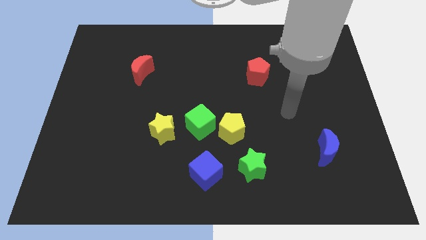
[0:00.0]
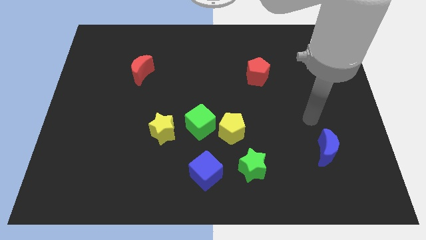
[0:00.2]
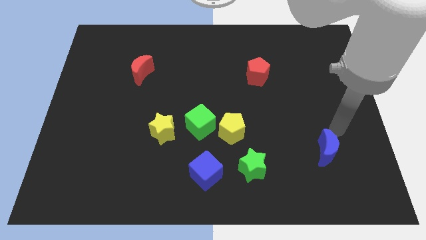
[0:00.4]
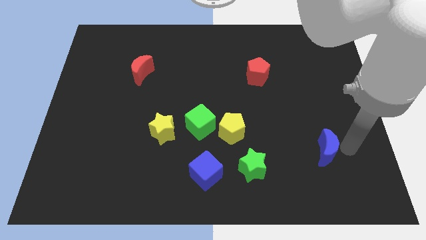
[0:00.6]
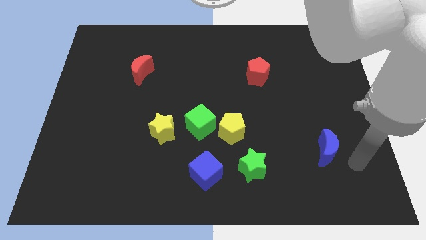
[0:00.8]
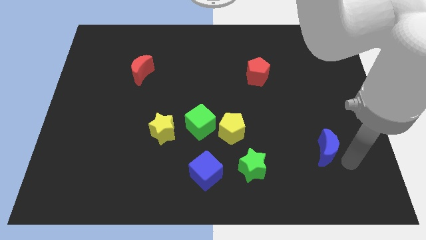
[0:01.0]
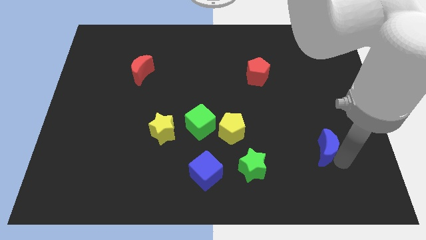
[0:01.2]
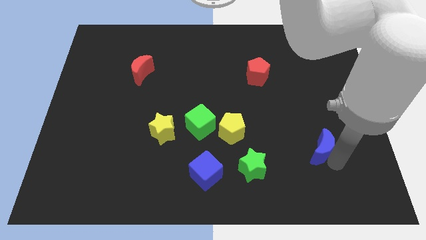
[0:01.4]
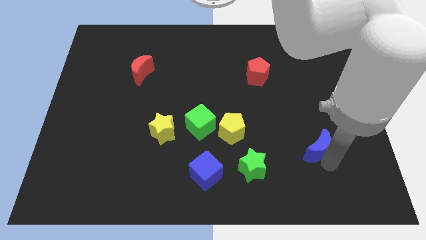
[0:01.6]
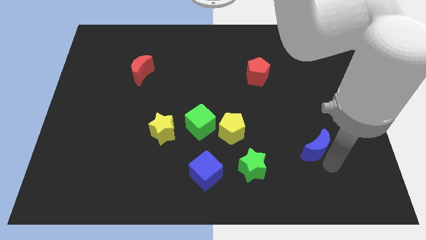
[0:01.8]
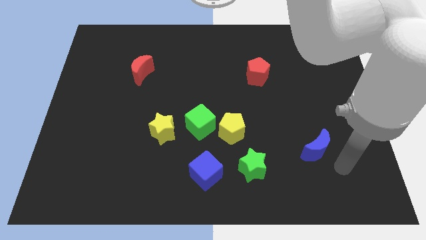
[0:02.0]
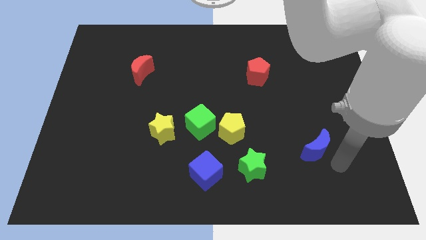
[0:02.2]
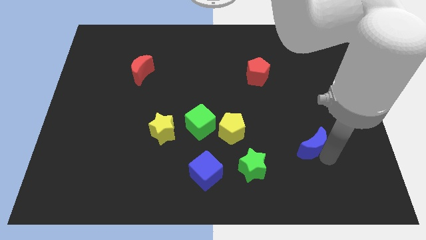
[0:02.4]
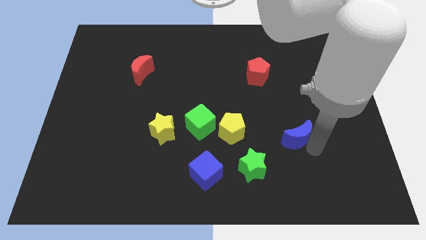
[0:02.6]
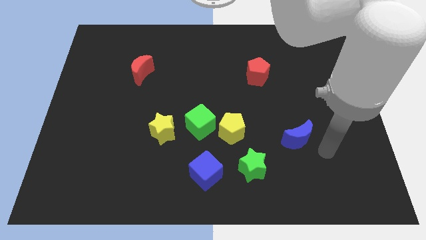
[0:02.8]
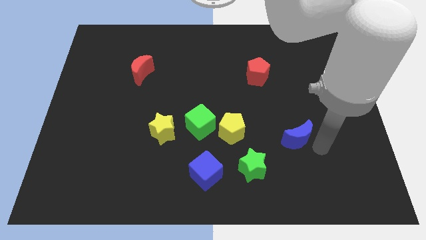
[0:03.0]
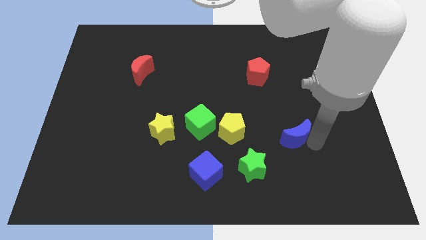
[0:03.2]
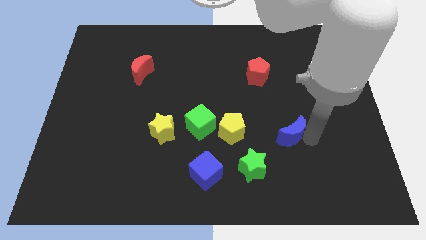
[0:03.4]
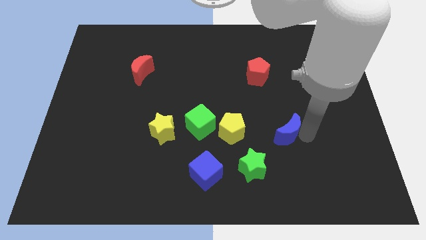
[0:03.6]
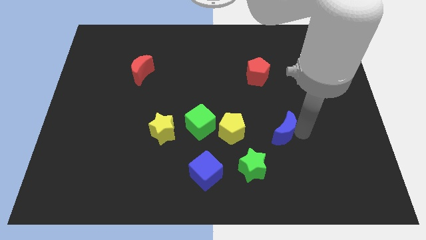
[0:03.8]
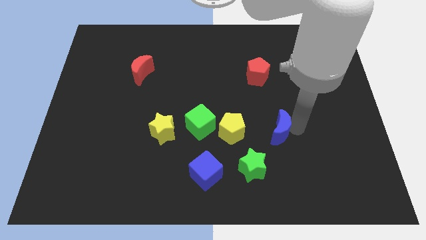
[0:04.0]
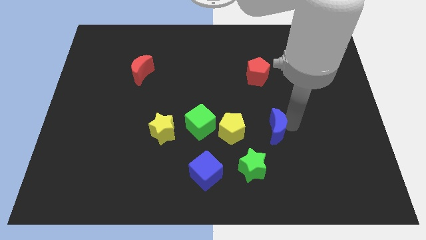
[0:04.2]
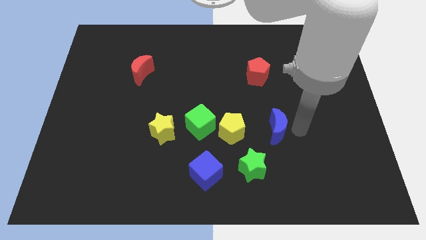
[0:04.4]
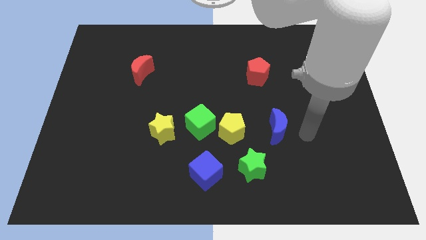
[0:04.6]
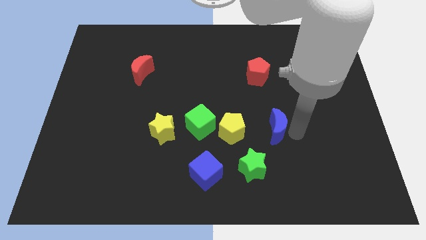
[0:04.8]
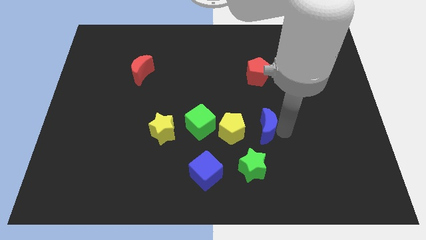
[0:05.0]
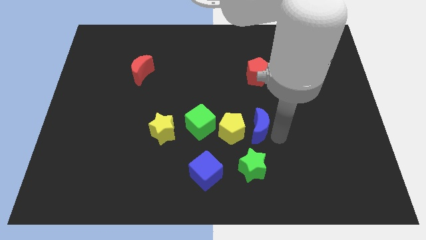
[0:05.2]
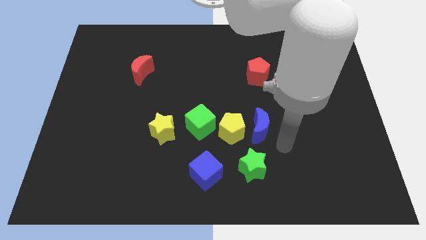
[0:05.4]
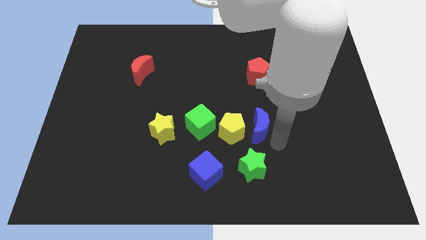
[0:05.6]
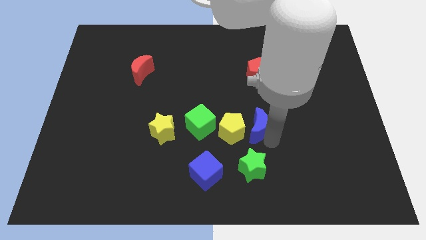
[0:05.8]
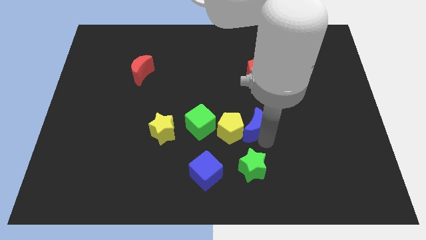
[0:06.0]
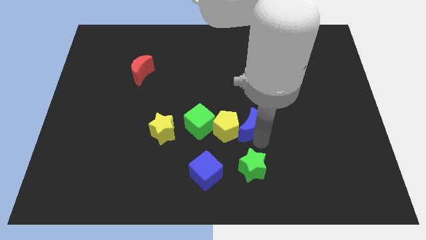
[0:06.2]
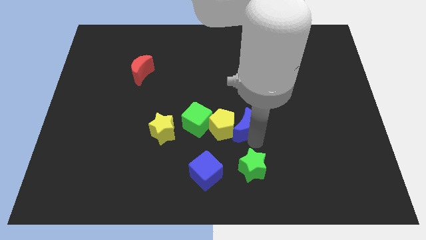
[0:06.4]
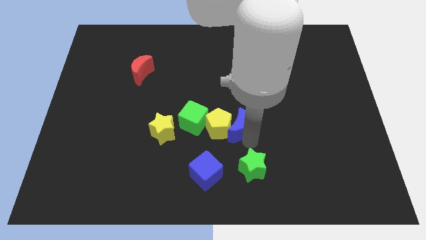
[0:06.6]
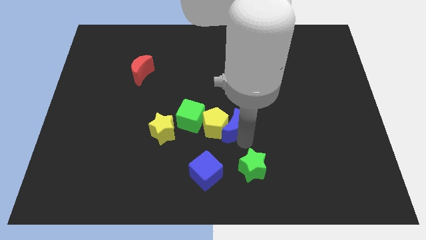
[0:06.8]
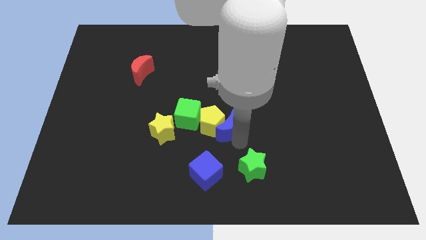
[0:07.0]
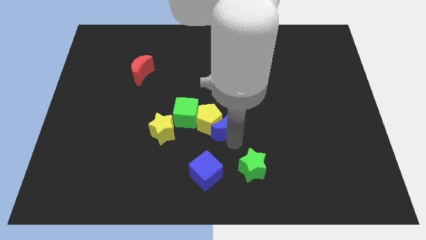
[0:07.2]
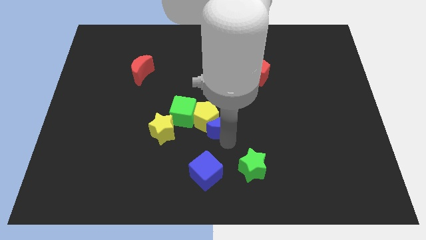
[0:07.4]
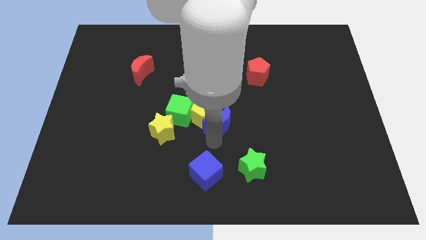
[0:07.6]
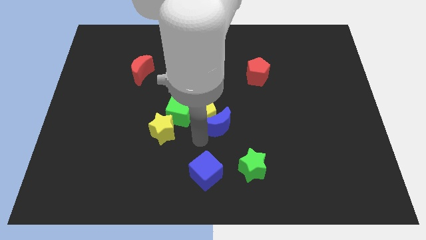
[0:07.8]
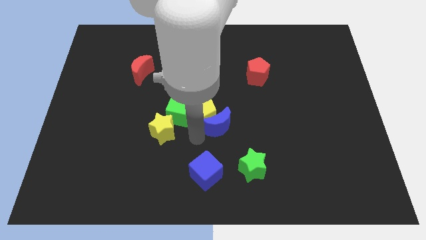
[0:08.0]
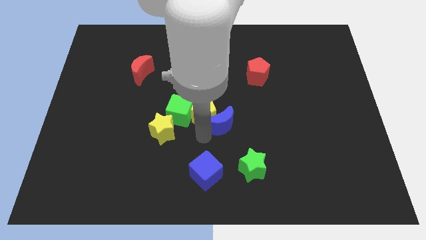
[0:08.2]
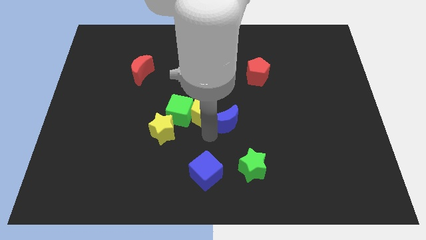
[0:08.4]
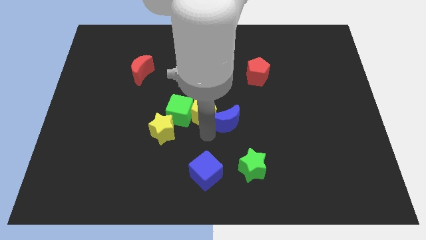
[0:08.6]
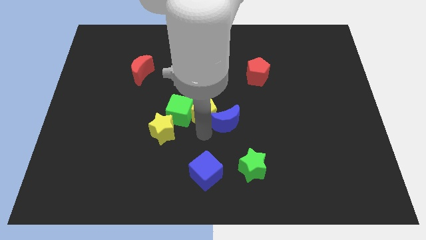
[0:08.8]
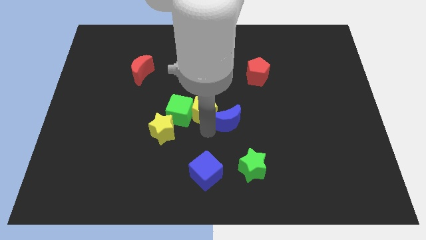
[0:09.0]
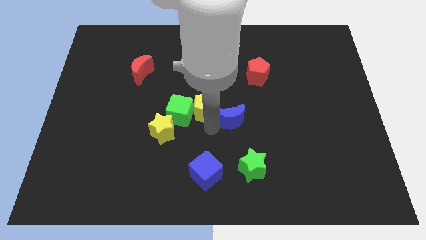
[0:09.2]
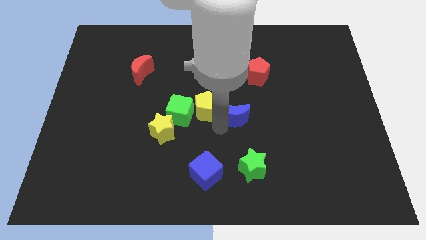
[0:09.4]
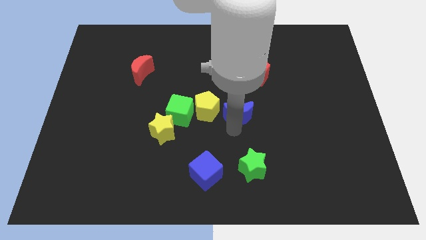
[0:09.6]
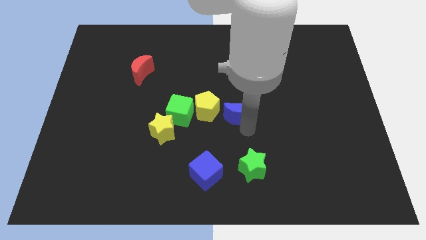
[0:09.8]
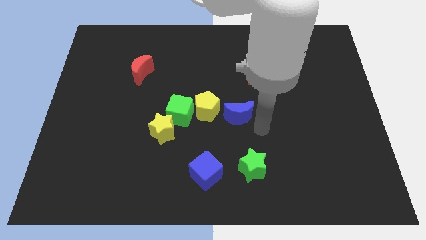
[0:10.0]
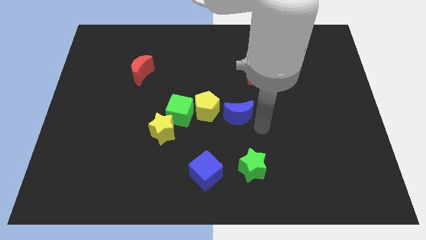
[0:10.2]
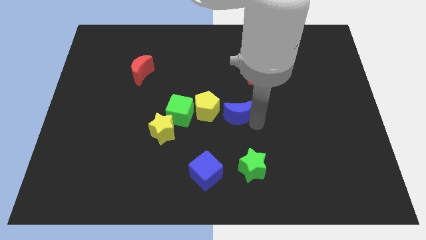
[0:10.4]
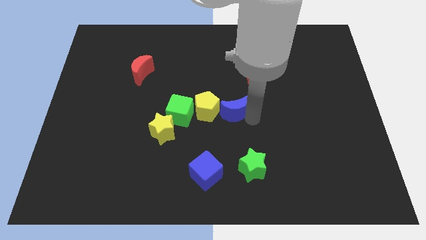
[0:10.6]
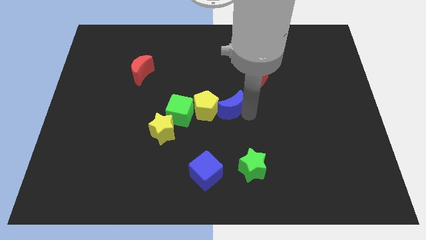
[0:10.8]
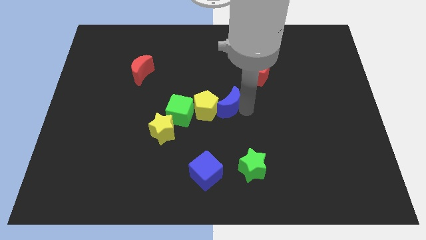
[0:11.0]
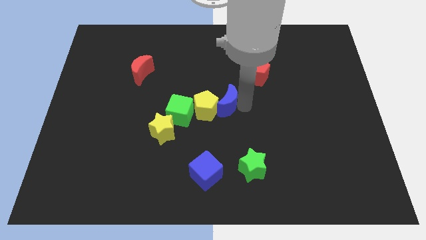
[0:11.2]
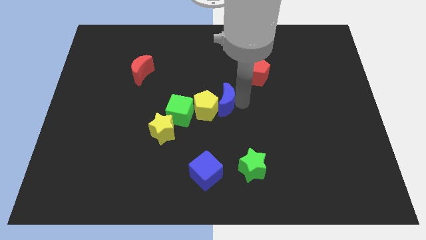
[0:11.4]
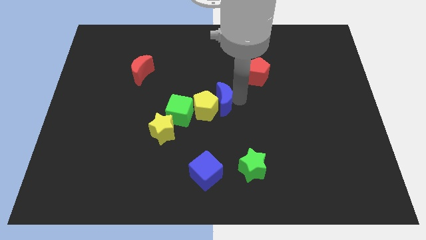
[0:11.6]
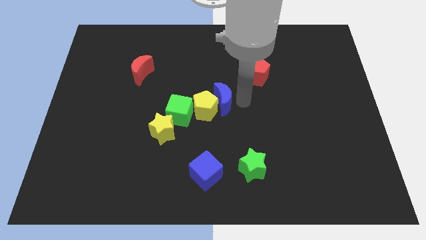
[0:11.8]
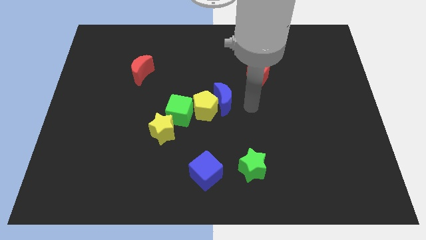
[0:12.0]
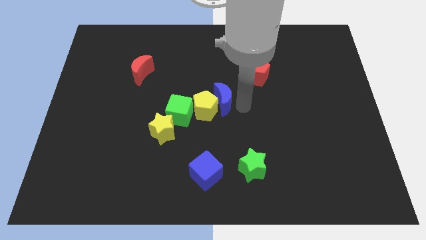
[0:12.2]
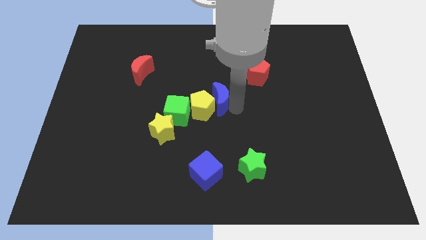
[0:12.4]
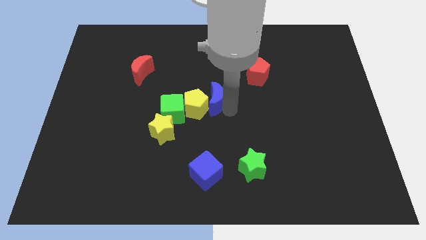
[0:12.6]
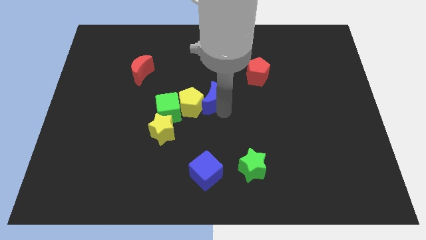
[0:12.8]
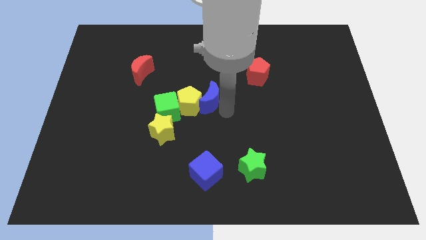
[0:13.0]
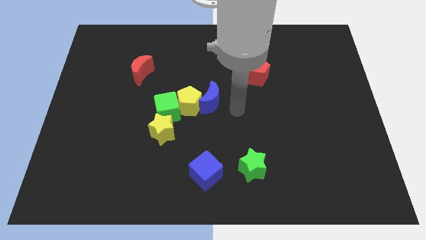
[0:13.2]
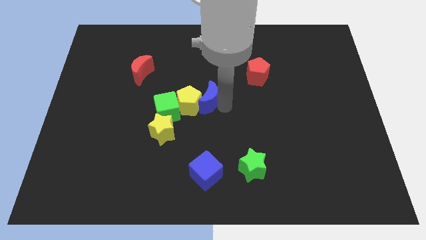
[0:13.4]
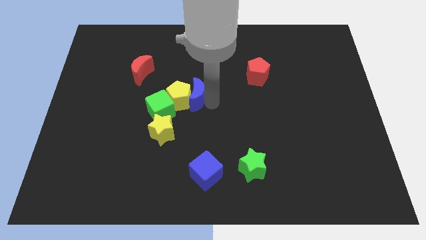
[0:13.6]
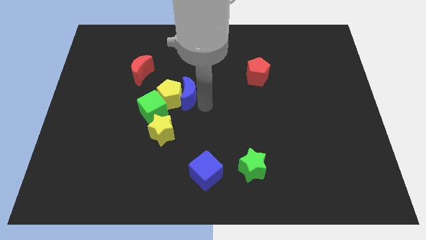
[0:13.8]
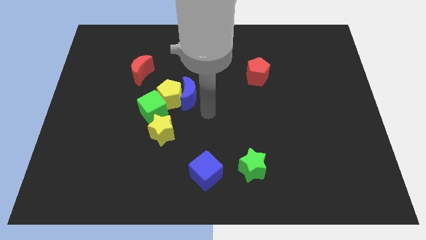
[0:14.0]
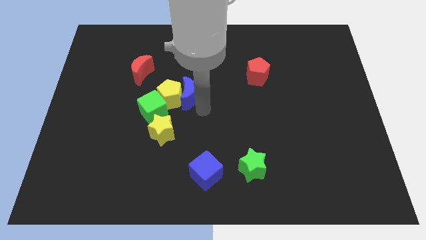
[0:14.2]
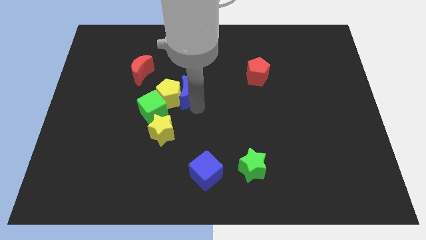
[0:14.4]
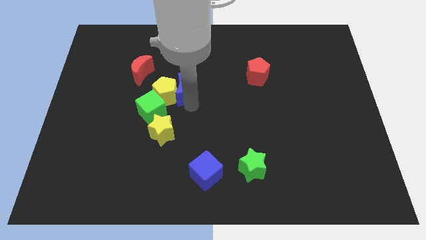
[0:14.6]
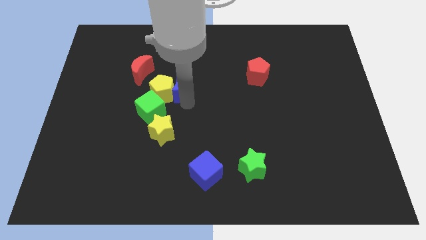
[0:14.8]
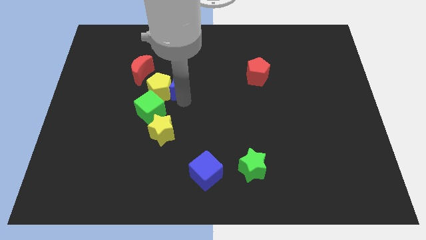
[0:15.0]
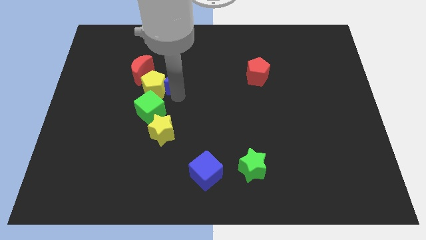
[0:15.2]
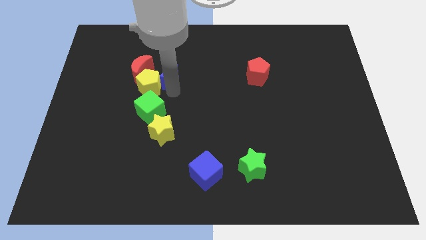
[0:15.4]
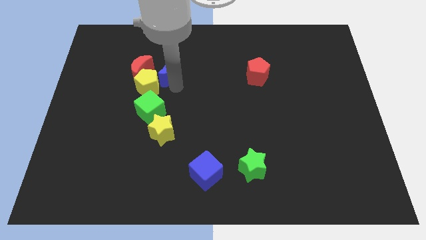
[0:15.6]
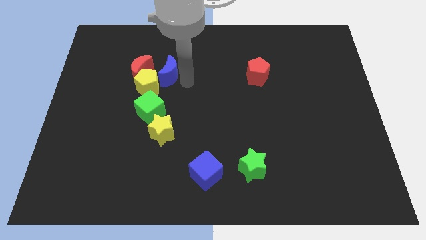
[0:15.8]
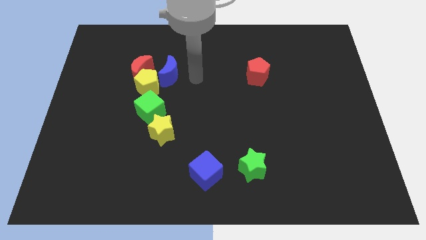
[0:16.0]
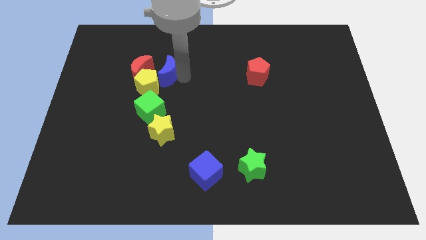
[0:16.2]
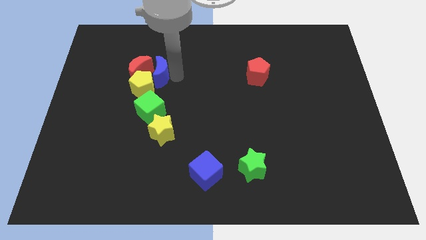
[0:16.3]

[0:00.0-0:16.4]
push the blue moon to the red moon
